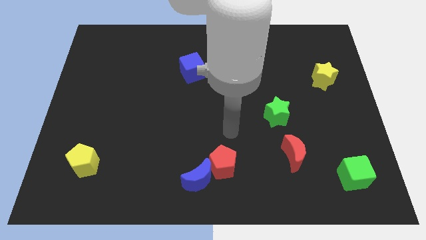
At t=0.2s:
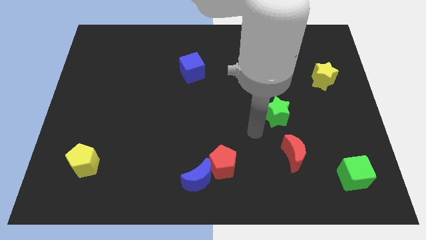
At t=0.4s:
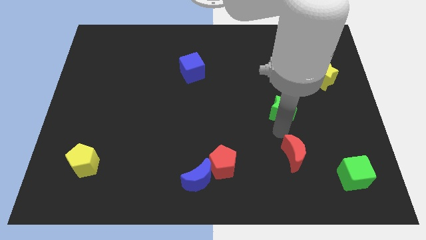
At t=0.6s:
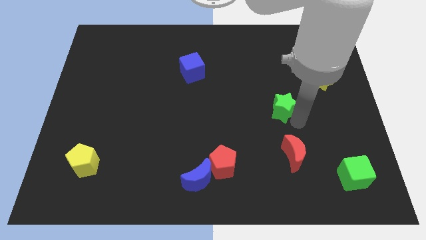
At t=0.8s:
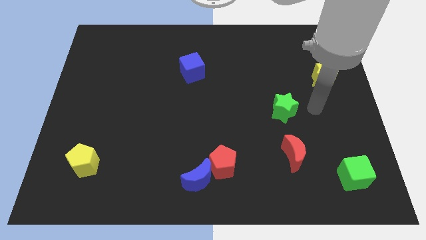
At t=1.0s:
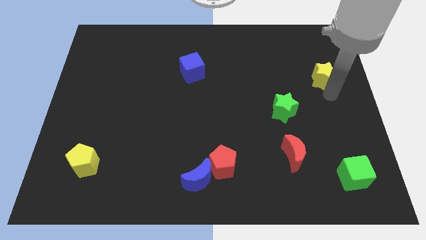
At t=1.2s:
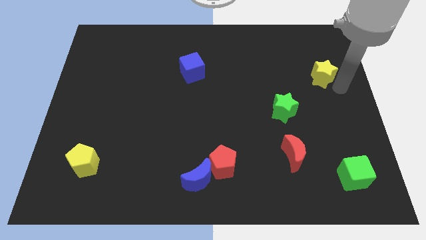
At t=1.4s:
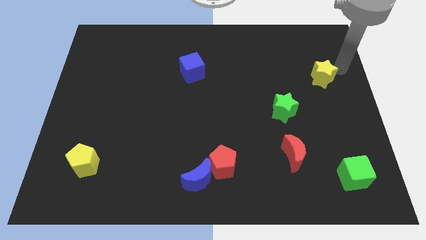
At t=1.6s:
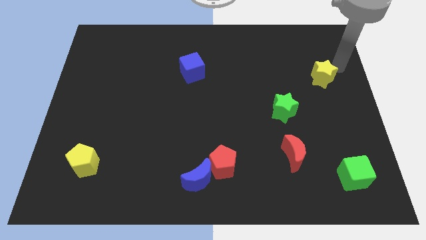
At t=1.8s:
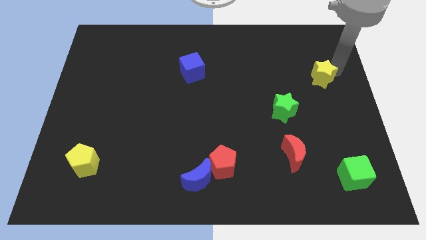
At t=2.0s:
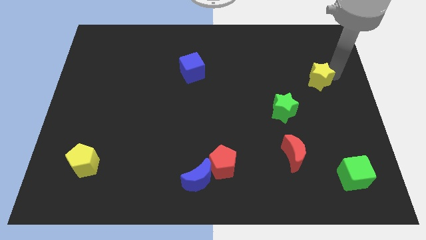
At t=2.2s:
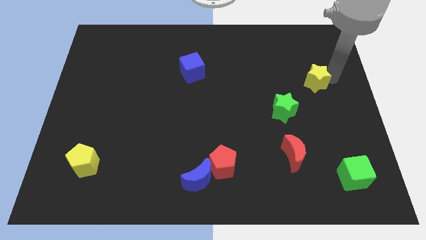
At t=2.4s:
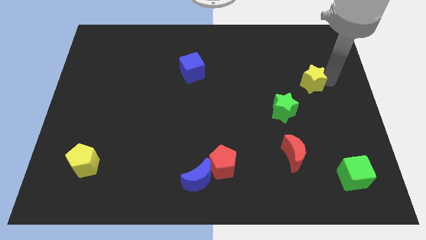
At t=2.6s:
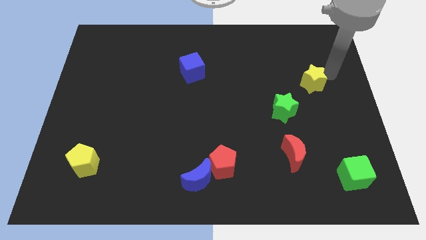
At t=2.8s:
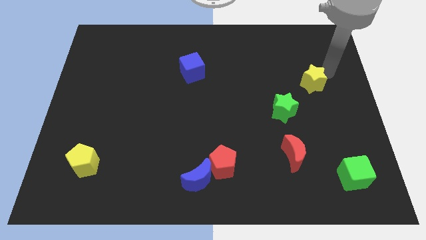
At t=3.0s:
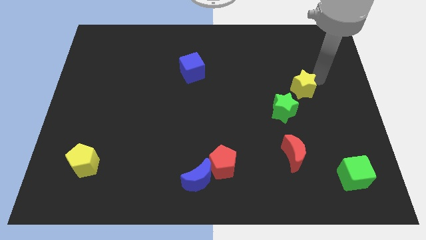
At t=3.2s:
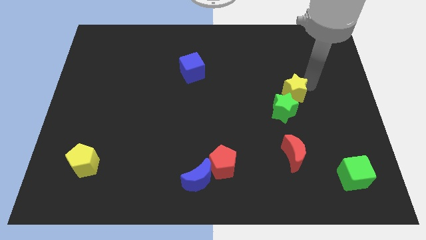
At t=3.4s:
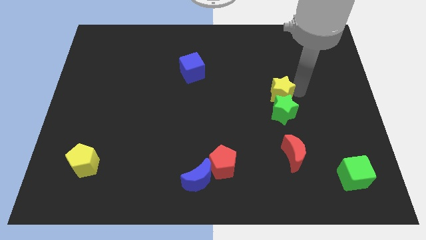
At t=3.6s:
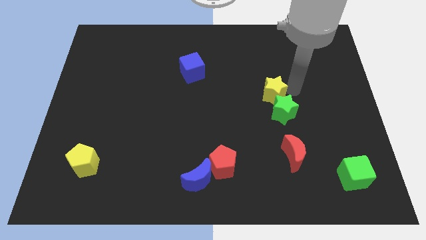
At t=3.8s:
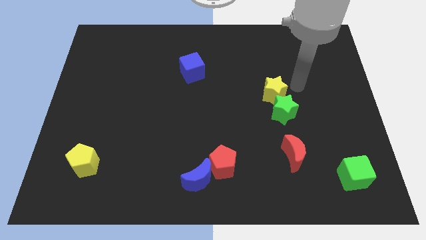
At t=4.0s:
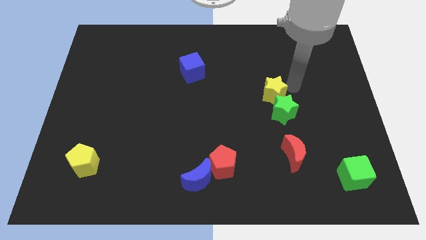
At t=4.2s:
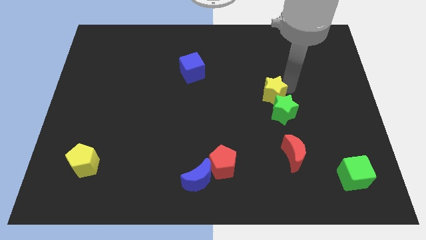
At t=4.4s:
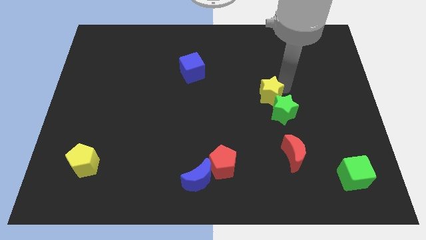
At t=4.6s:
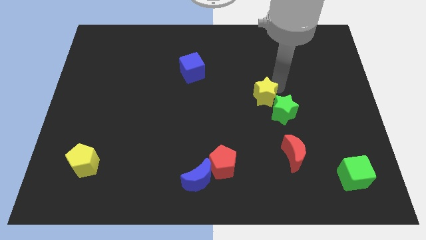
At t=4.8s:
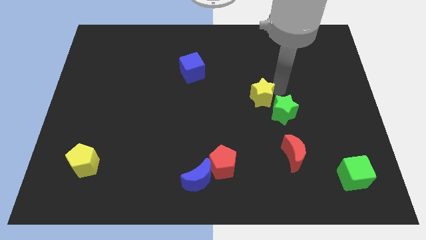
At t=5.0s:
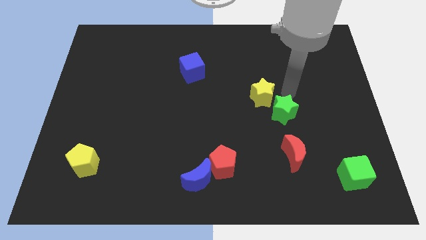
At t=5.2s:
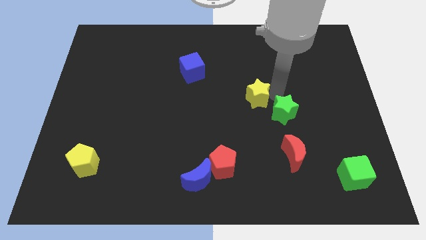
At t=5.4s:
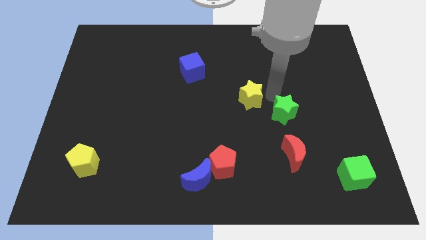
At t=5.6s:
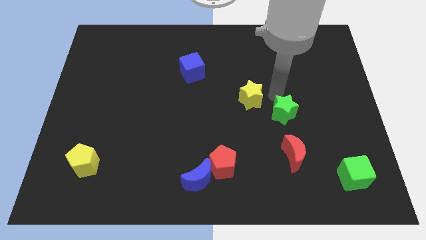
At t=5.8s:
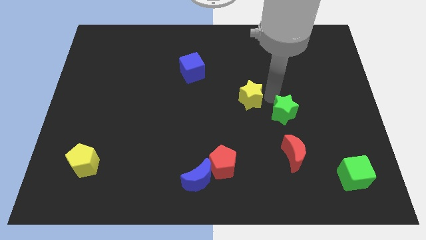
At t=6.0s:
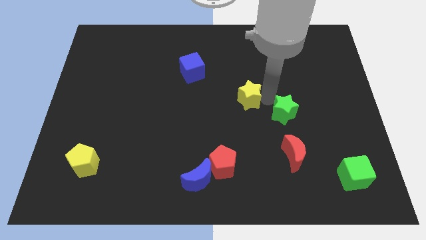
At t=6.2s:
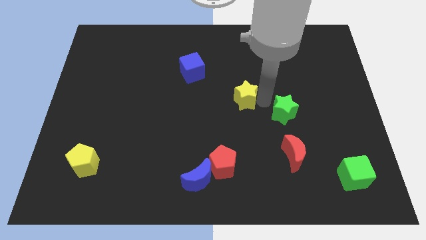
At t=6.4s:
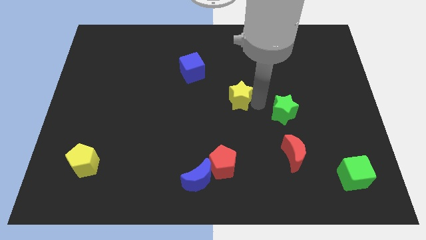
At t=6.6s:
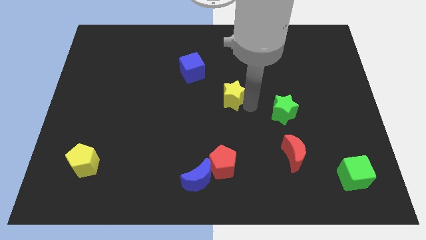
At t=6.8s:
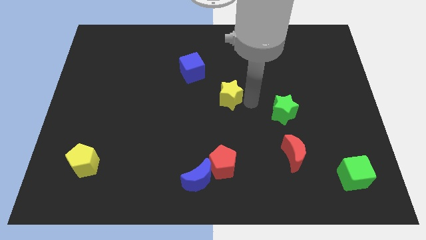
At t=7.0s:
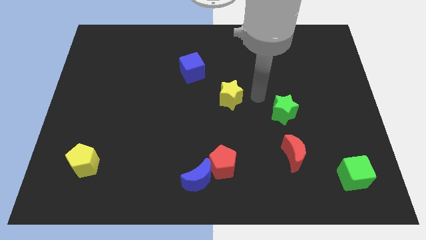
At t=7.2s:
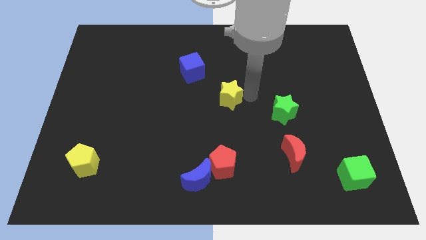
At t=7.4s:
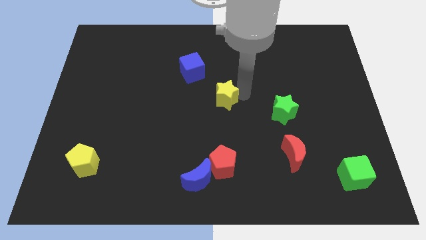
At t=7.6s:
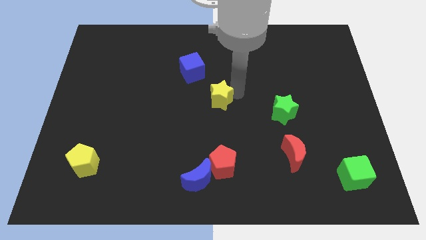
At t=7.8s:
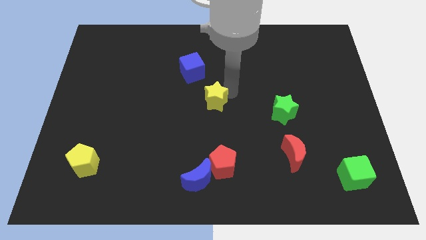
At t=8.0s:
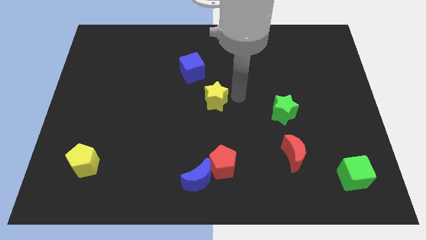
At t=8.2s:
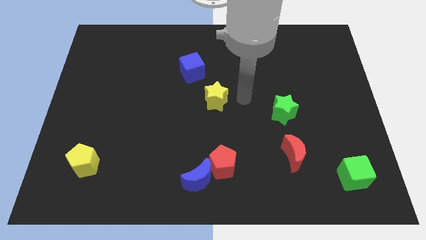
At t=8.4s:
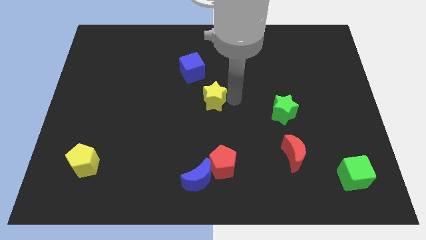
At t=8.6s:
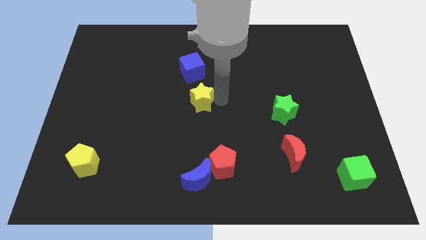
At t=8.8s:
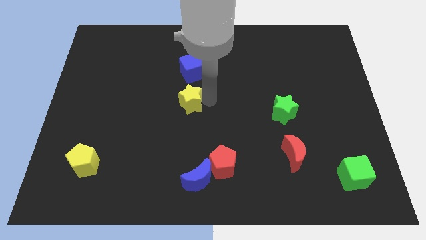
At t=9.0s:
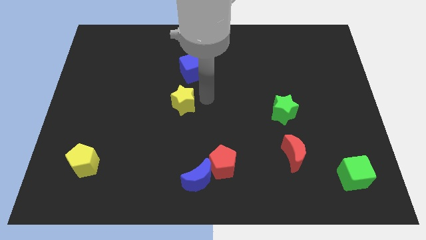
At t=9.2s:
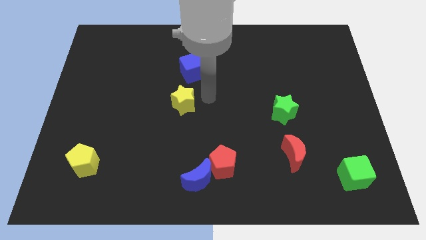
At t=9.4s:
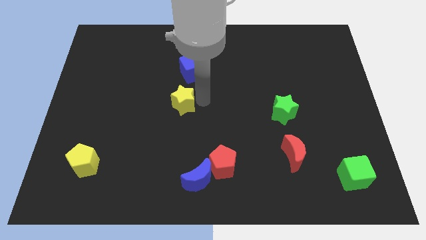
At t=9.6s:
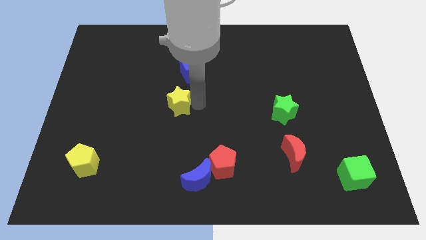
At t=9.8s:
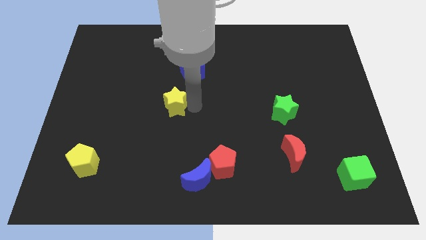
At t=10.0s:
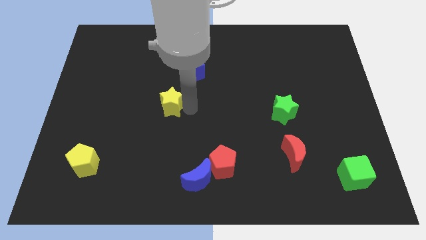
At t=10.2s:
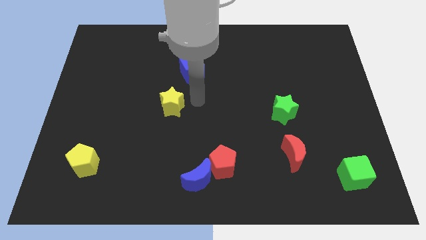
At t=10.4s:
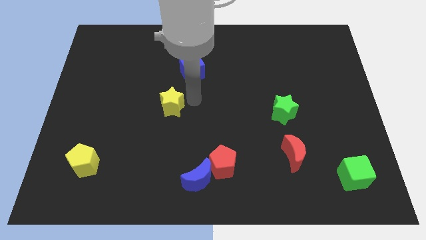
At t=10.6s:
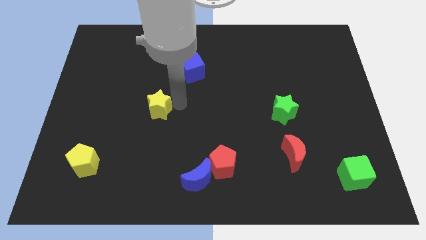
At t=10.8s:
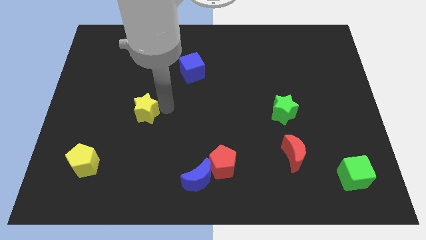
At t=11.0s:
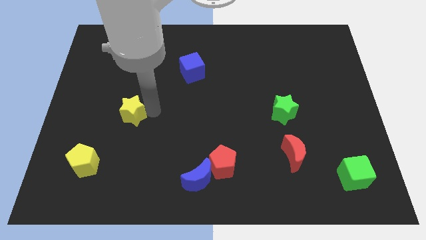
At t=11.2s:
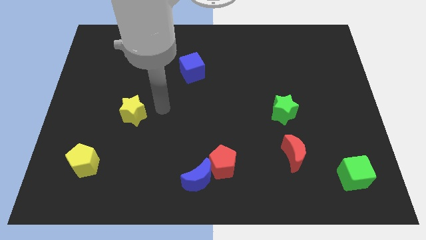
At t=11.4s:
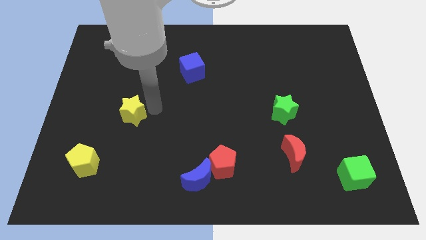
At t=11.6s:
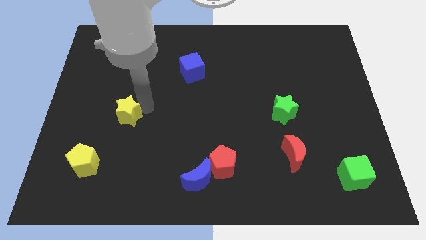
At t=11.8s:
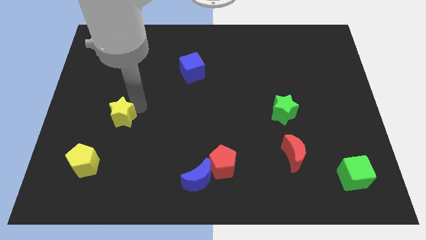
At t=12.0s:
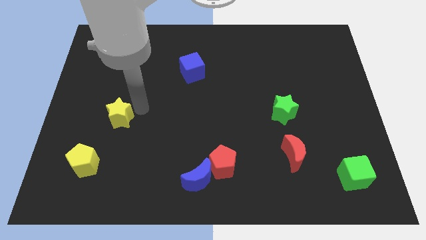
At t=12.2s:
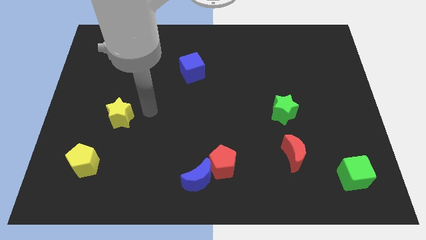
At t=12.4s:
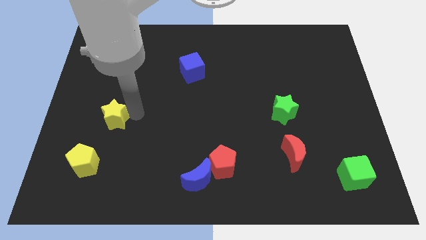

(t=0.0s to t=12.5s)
move the yellow star to the top side of the yellow pentagon

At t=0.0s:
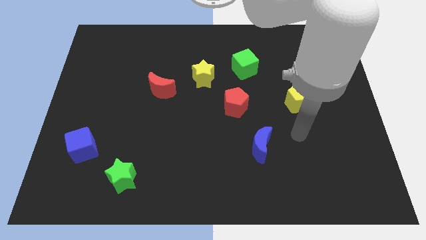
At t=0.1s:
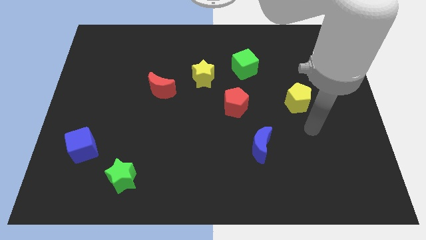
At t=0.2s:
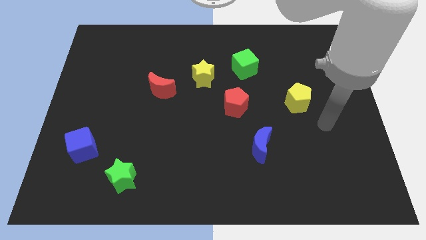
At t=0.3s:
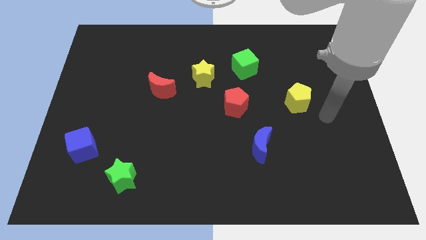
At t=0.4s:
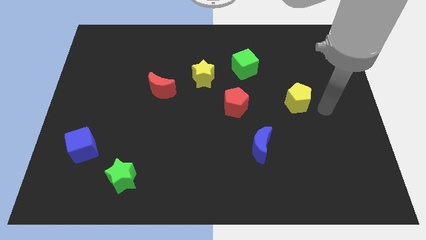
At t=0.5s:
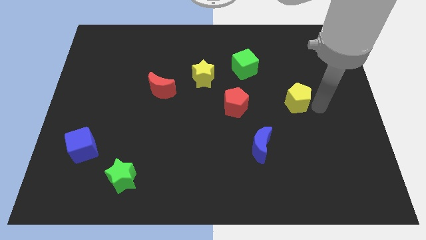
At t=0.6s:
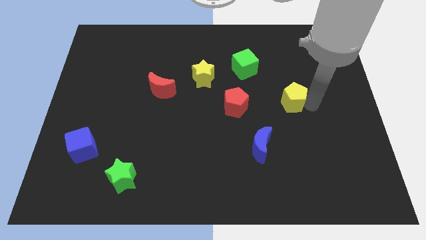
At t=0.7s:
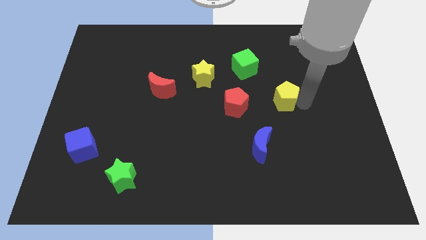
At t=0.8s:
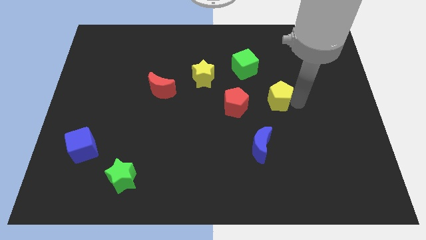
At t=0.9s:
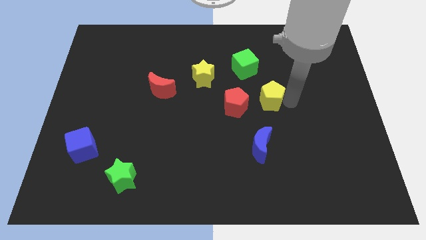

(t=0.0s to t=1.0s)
put the yellow pentagon to the top right of the red pentagon
